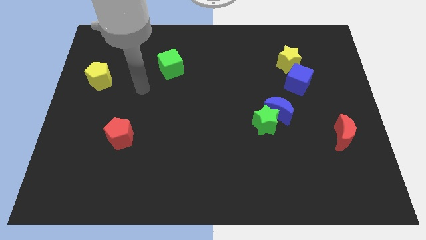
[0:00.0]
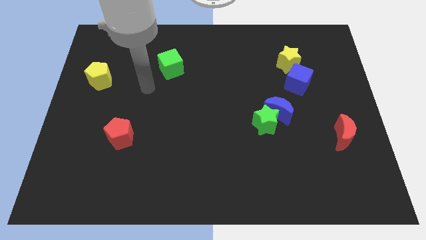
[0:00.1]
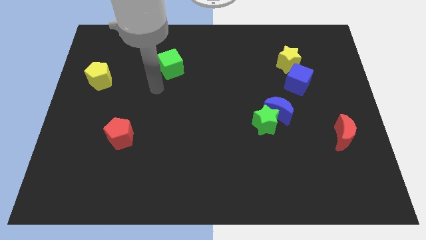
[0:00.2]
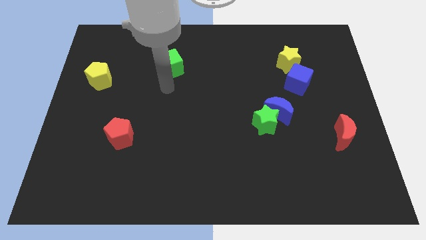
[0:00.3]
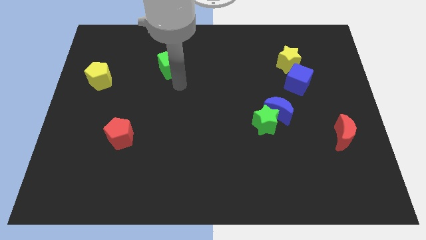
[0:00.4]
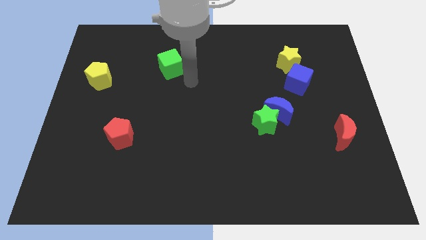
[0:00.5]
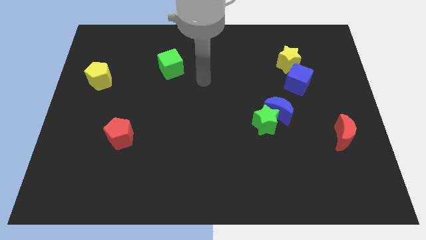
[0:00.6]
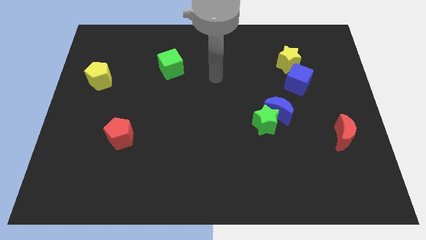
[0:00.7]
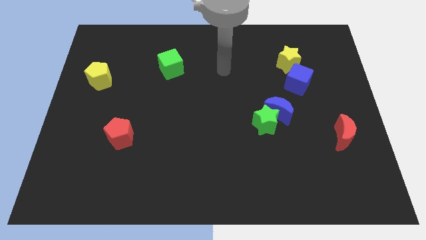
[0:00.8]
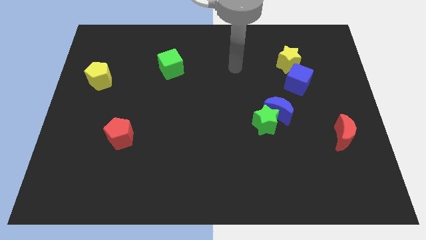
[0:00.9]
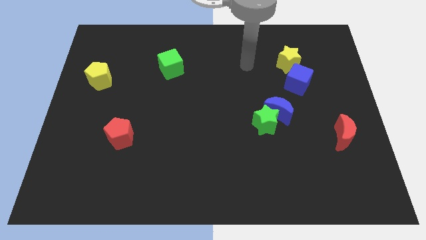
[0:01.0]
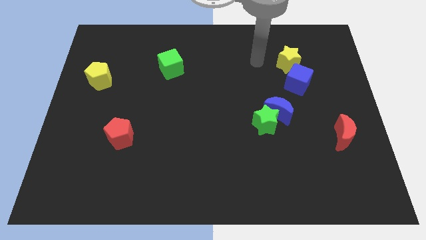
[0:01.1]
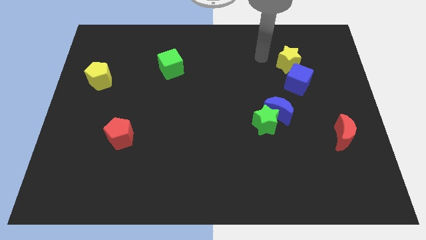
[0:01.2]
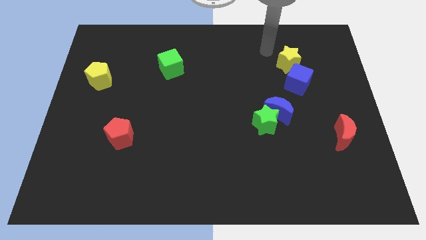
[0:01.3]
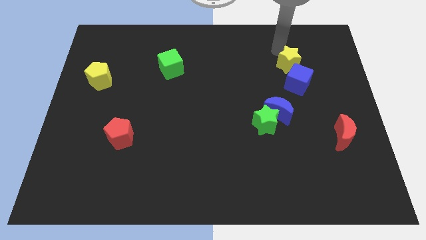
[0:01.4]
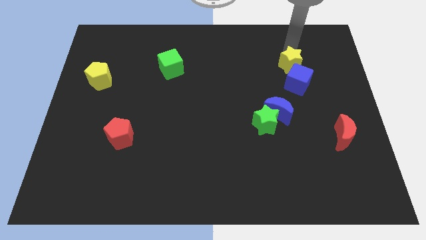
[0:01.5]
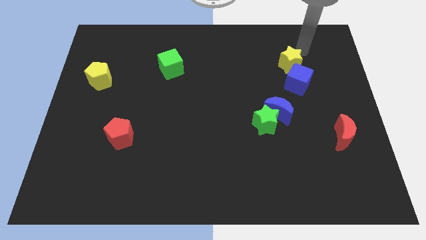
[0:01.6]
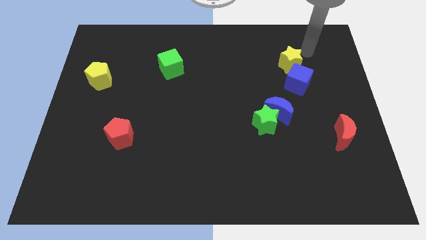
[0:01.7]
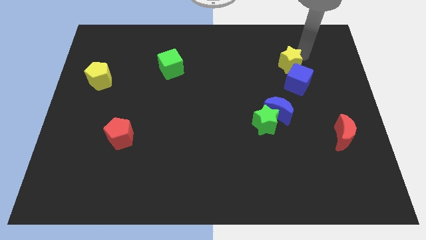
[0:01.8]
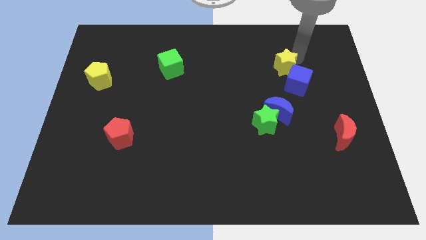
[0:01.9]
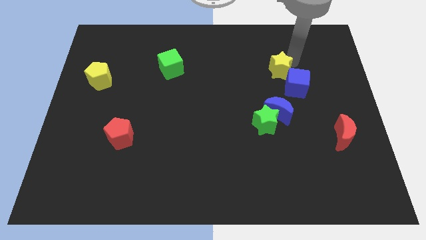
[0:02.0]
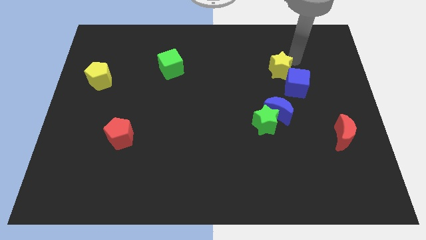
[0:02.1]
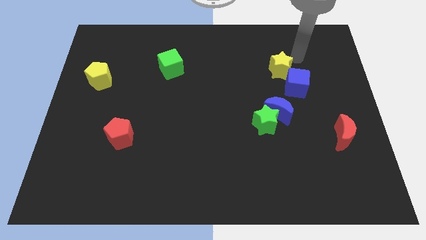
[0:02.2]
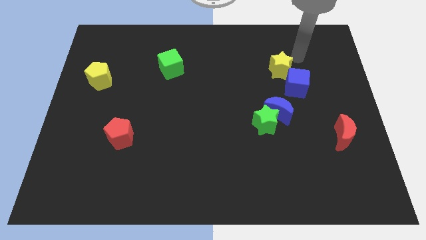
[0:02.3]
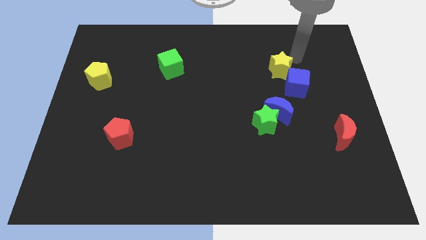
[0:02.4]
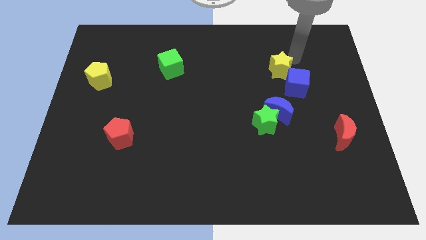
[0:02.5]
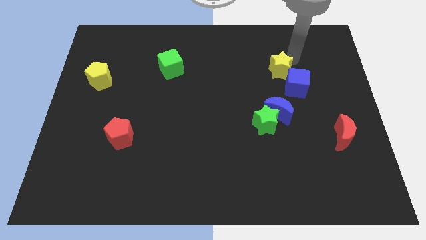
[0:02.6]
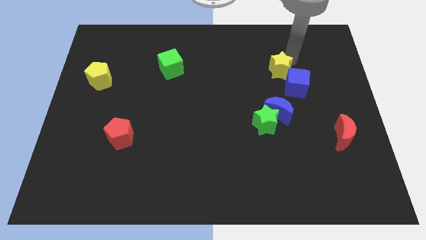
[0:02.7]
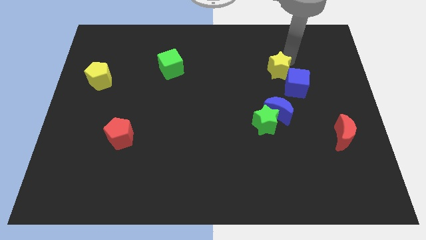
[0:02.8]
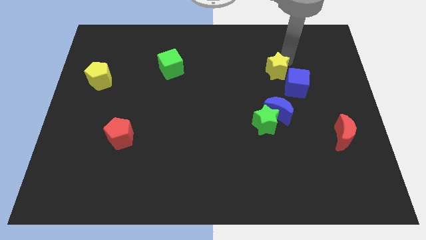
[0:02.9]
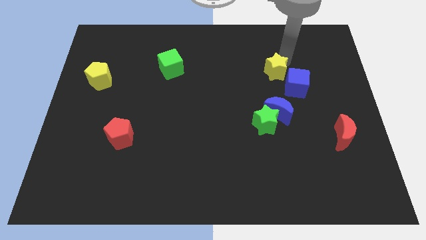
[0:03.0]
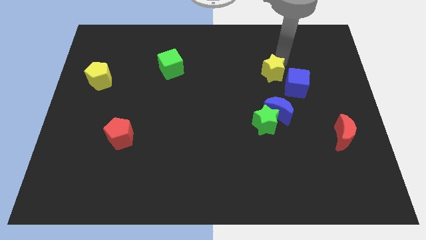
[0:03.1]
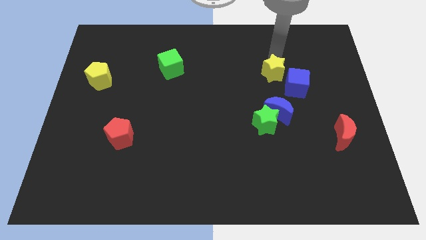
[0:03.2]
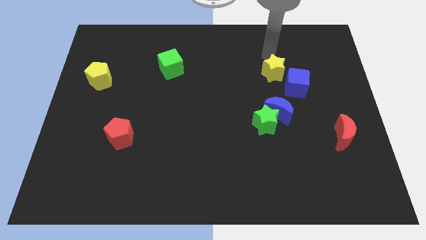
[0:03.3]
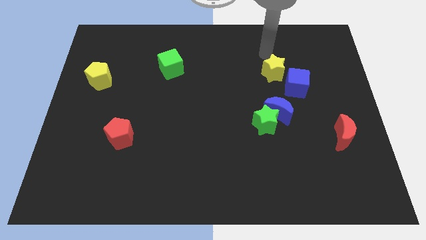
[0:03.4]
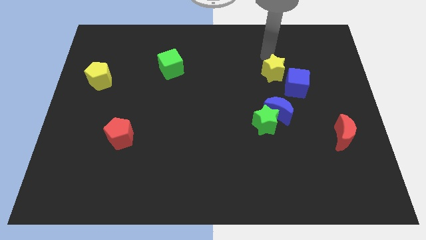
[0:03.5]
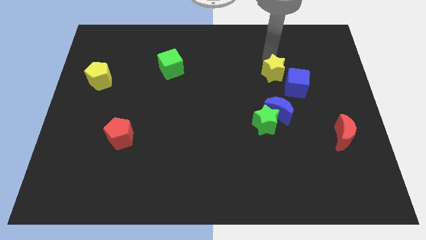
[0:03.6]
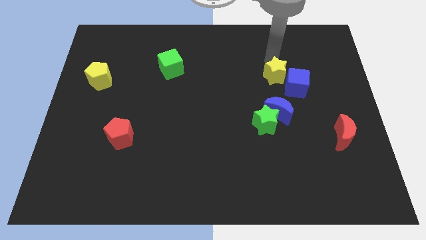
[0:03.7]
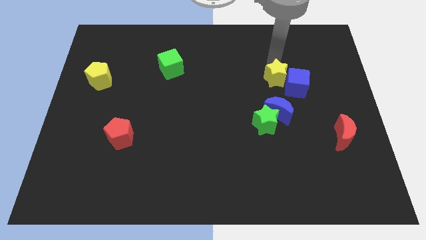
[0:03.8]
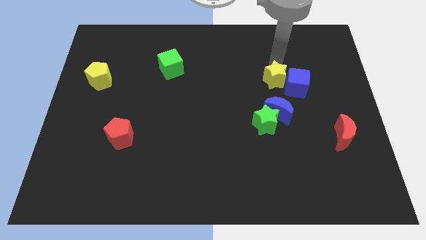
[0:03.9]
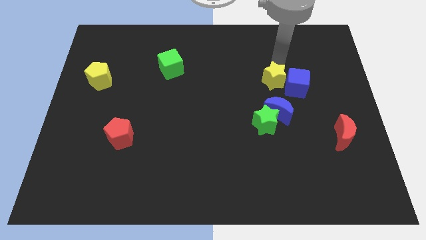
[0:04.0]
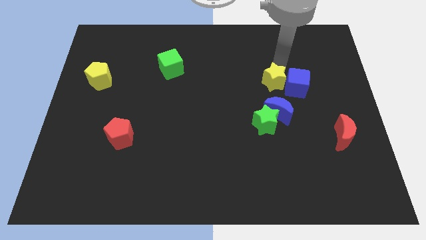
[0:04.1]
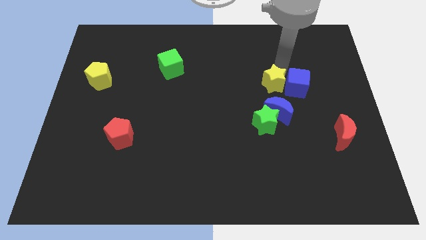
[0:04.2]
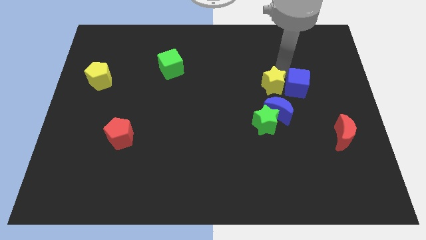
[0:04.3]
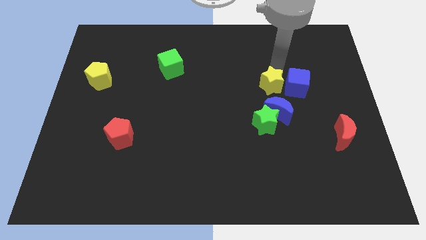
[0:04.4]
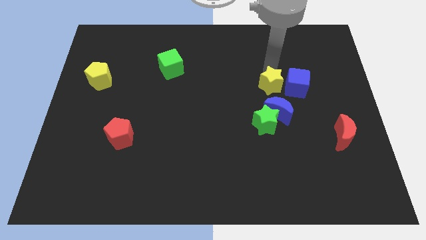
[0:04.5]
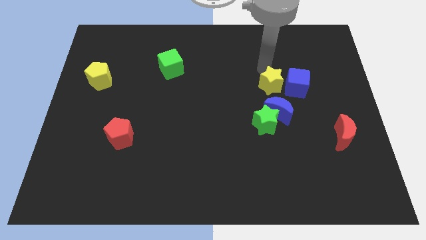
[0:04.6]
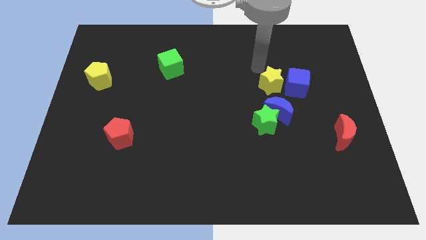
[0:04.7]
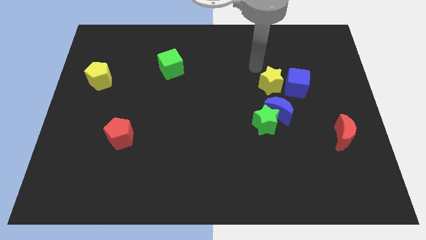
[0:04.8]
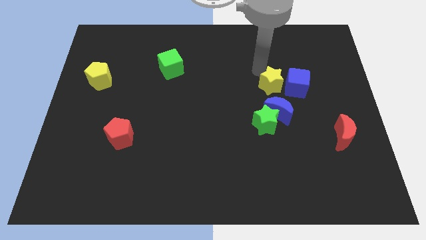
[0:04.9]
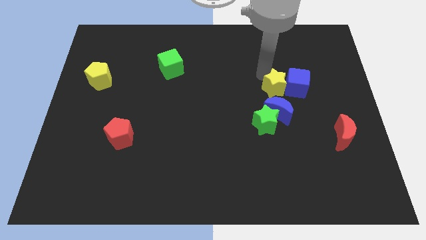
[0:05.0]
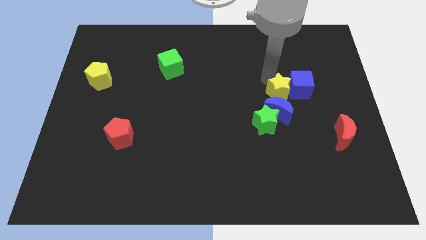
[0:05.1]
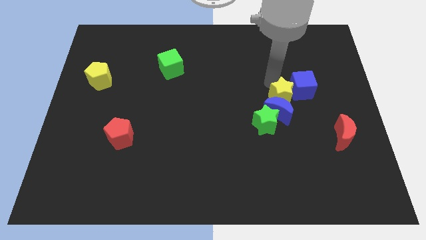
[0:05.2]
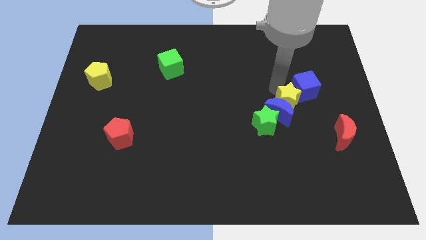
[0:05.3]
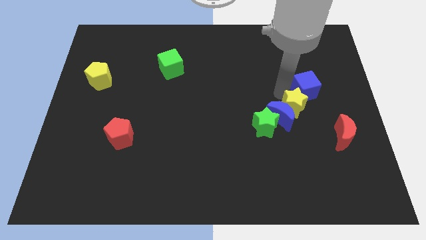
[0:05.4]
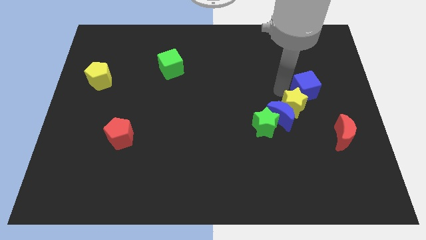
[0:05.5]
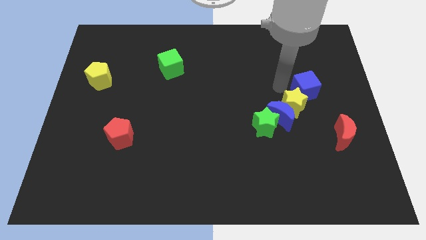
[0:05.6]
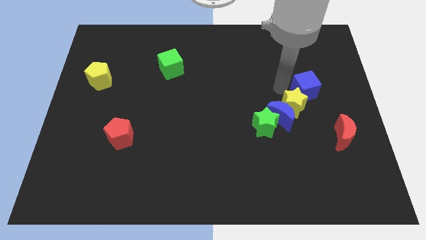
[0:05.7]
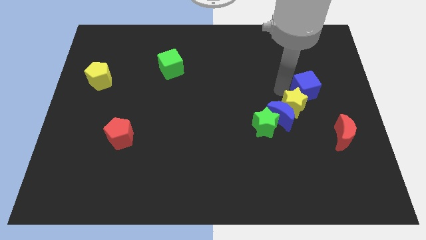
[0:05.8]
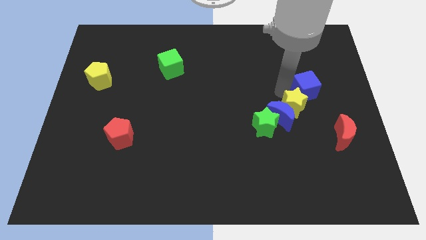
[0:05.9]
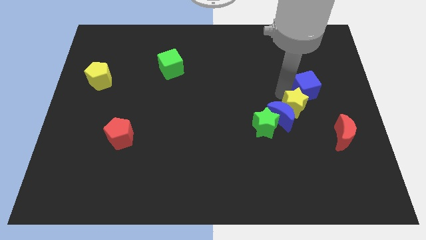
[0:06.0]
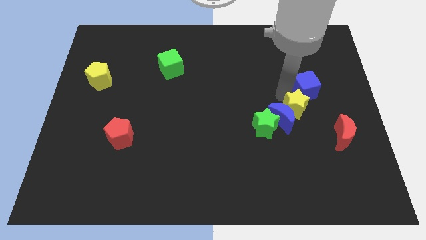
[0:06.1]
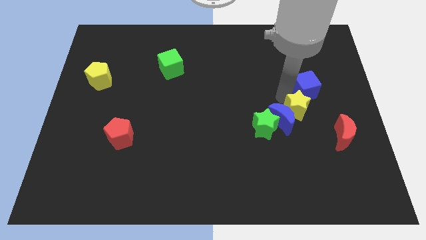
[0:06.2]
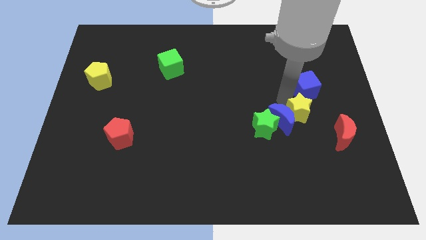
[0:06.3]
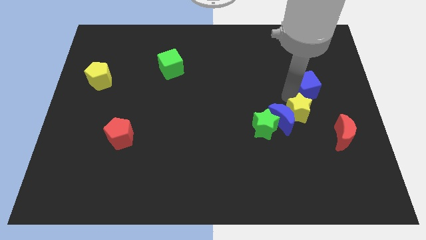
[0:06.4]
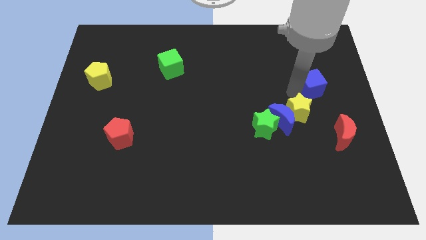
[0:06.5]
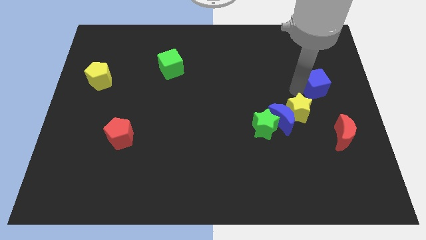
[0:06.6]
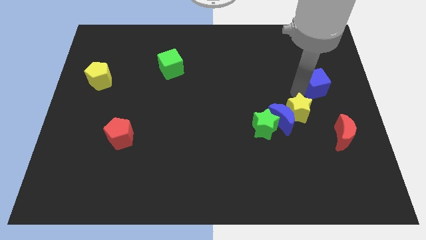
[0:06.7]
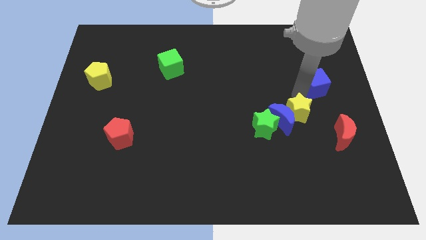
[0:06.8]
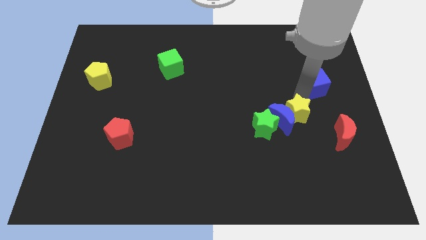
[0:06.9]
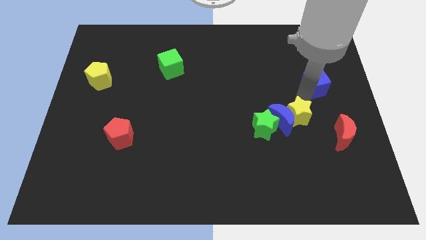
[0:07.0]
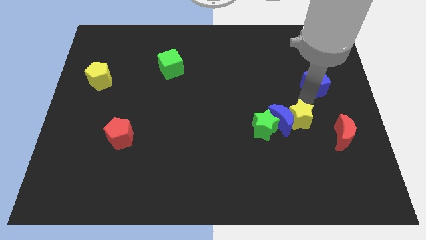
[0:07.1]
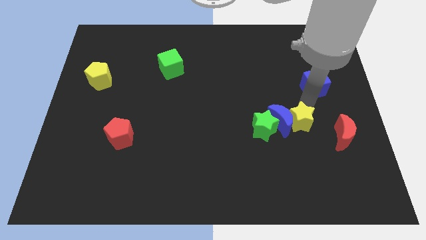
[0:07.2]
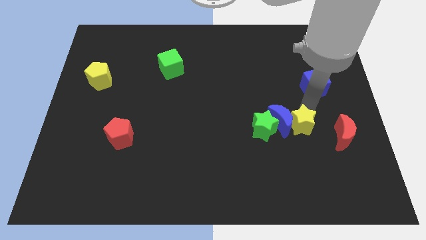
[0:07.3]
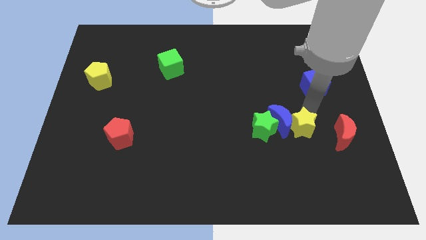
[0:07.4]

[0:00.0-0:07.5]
slide the yellow star down
